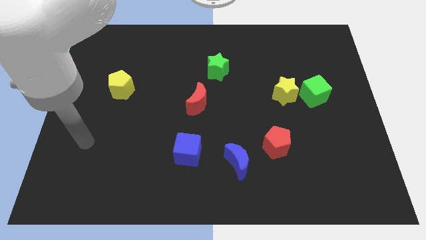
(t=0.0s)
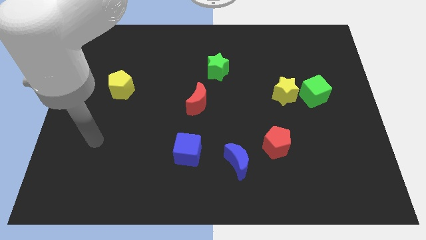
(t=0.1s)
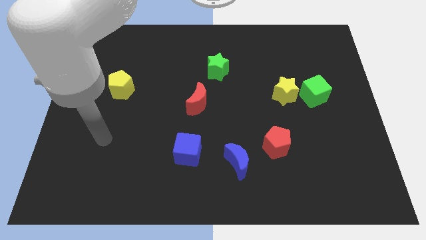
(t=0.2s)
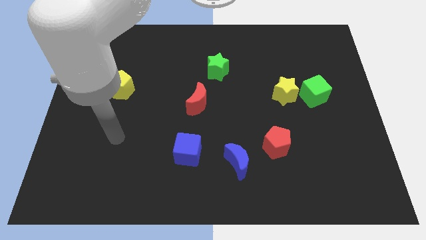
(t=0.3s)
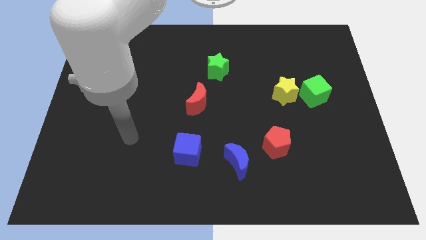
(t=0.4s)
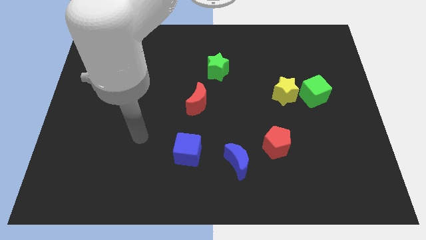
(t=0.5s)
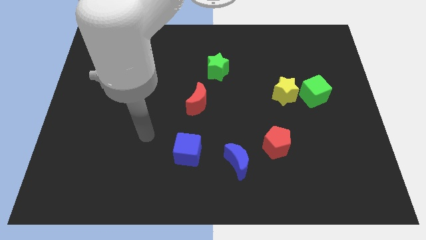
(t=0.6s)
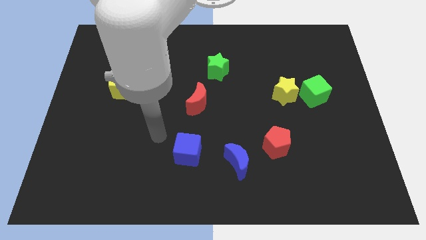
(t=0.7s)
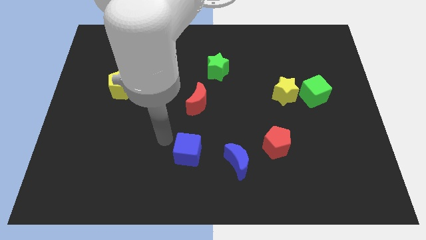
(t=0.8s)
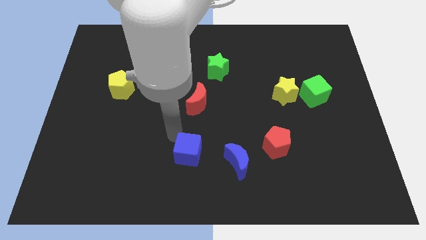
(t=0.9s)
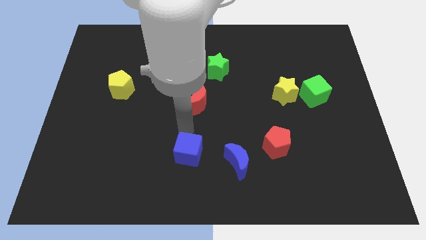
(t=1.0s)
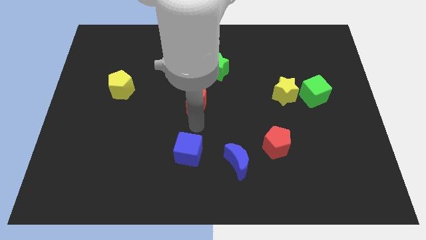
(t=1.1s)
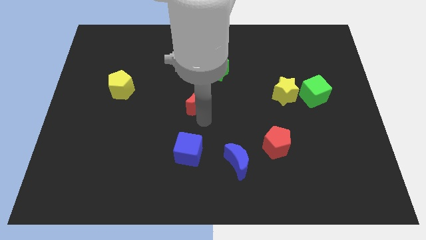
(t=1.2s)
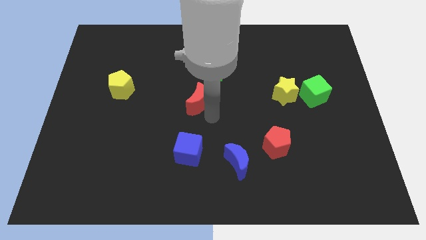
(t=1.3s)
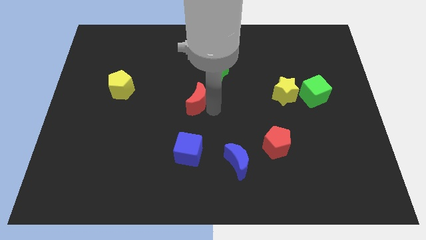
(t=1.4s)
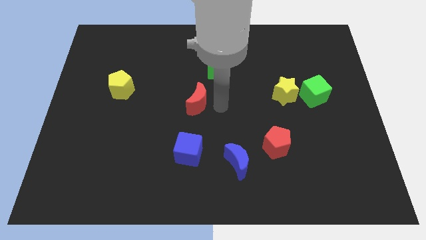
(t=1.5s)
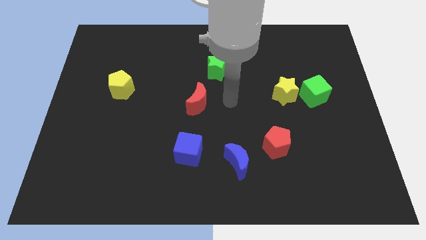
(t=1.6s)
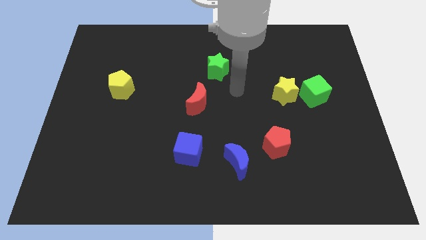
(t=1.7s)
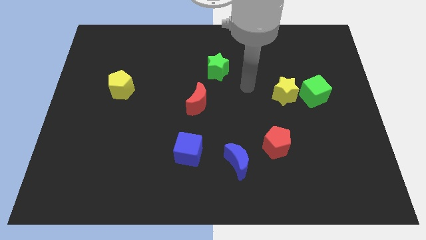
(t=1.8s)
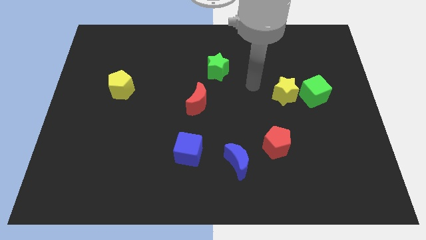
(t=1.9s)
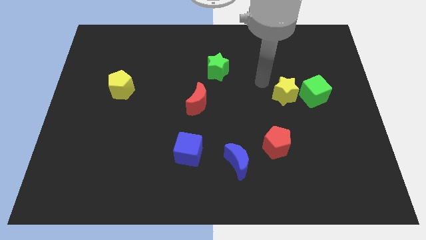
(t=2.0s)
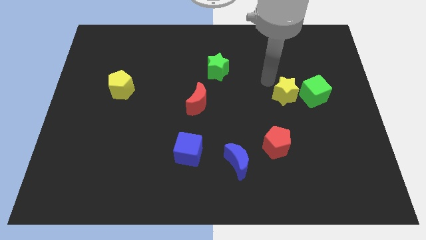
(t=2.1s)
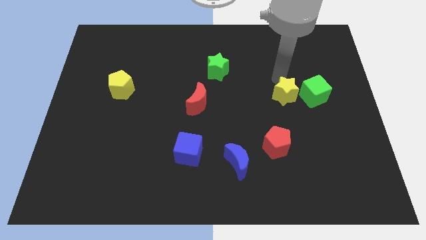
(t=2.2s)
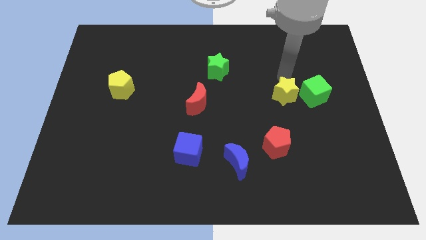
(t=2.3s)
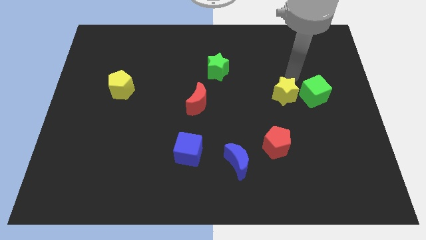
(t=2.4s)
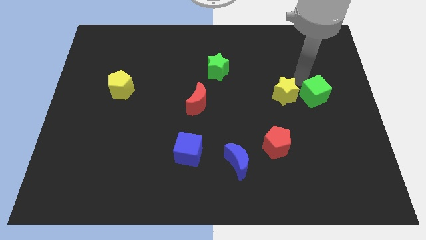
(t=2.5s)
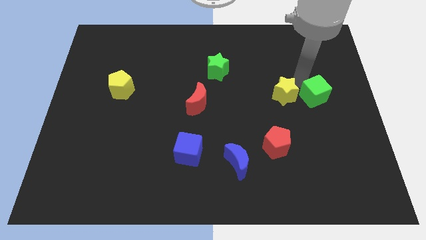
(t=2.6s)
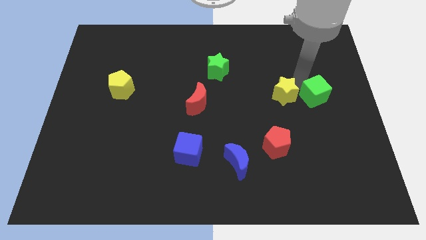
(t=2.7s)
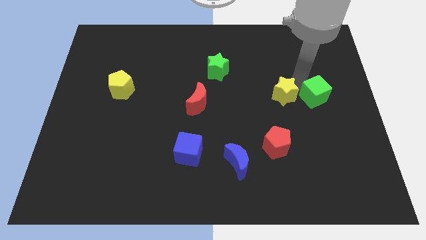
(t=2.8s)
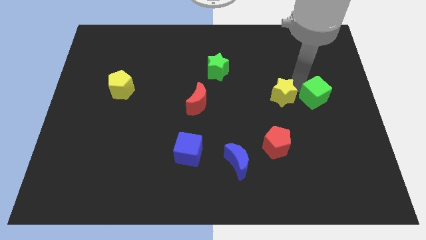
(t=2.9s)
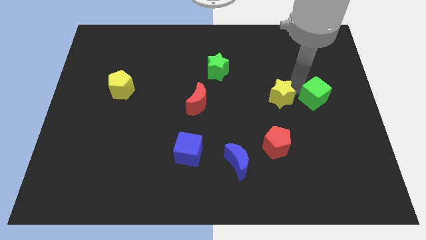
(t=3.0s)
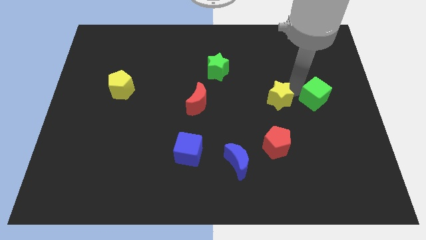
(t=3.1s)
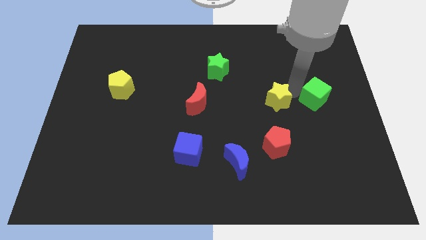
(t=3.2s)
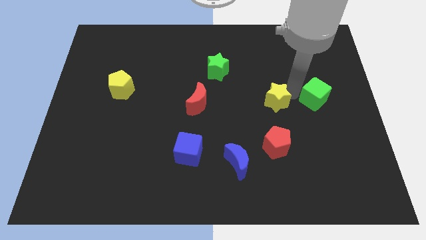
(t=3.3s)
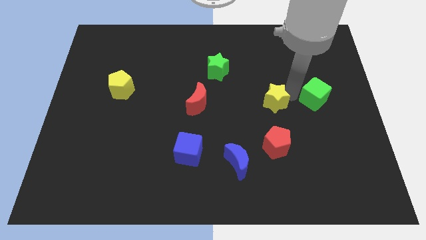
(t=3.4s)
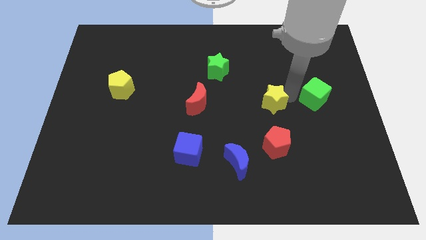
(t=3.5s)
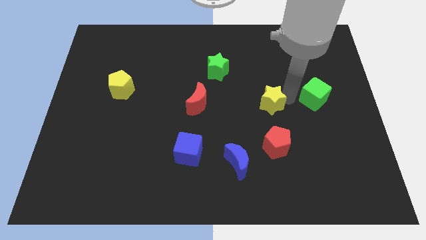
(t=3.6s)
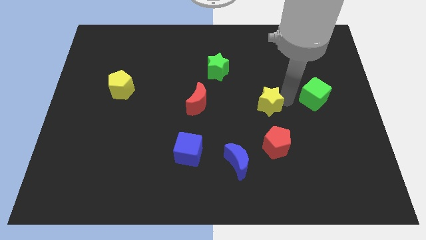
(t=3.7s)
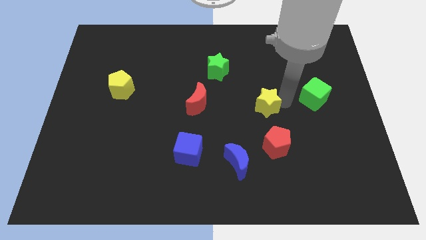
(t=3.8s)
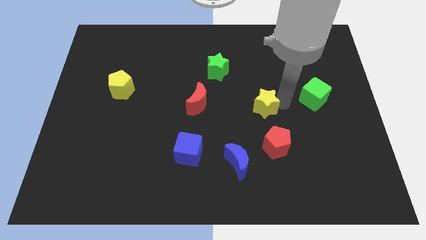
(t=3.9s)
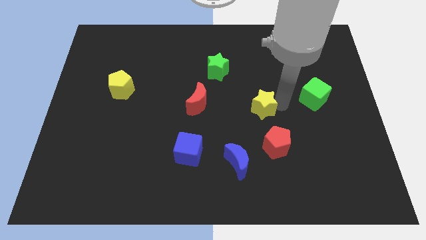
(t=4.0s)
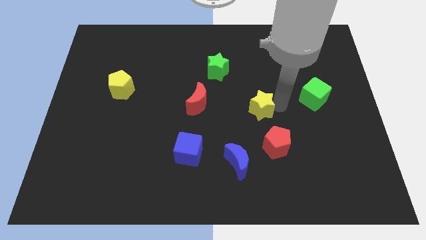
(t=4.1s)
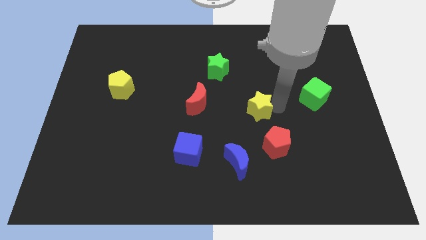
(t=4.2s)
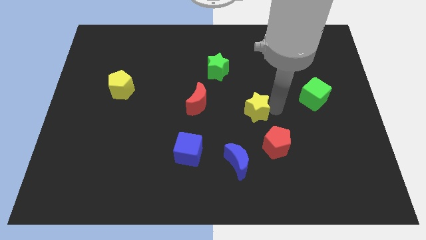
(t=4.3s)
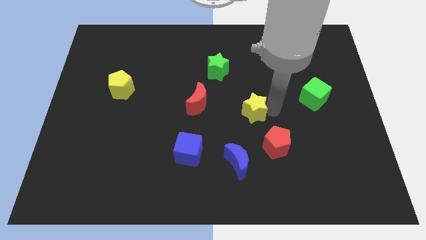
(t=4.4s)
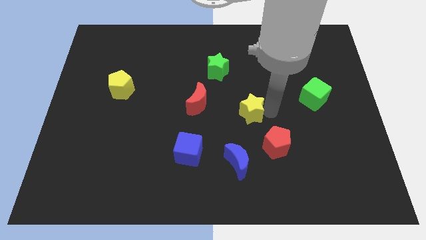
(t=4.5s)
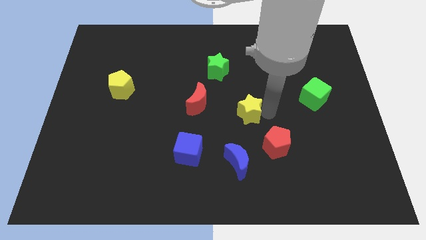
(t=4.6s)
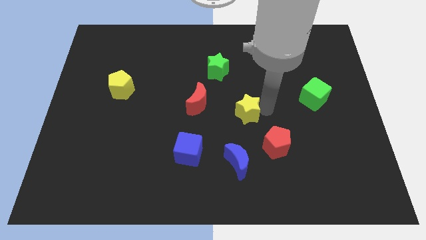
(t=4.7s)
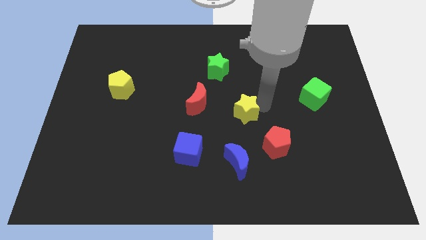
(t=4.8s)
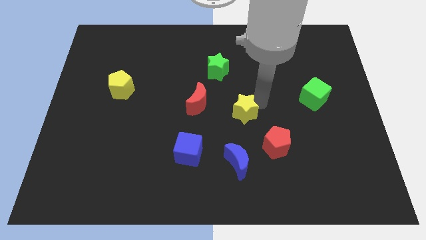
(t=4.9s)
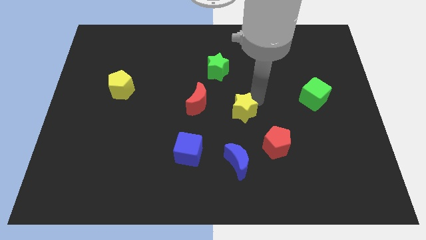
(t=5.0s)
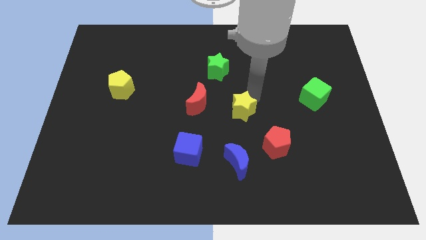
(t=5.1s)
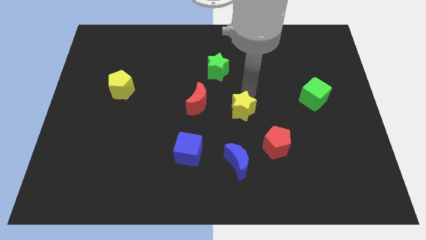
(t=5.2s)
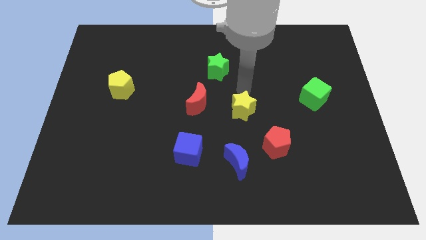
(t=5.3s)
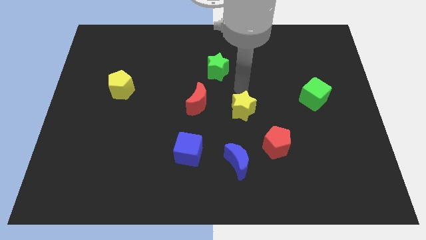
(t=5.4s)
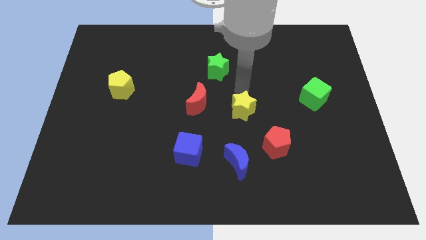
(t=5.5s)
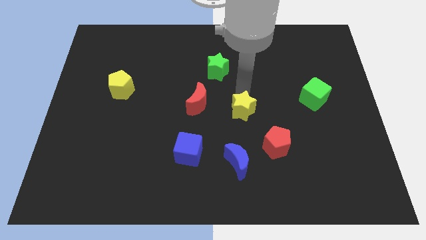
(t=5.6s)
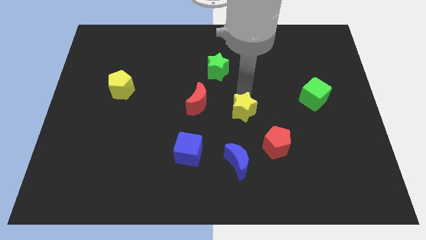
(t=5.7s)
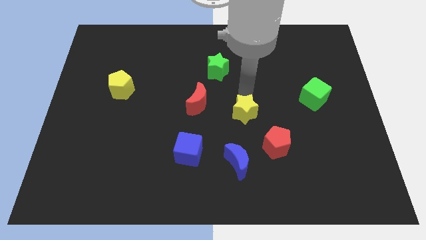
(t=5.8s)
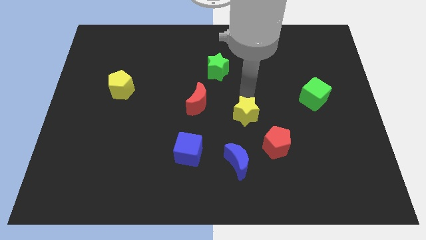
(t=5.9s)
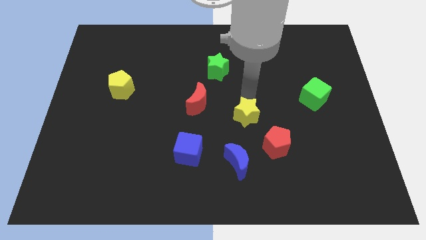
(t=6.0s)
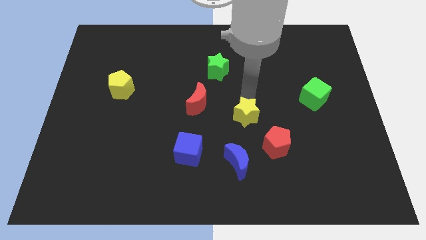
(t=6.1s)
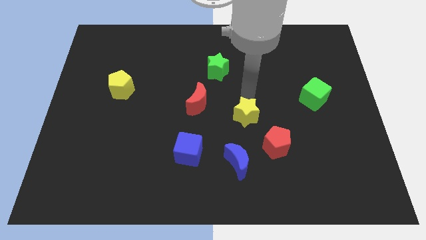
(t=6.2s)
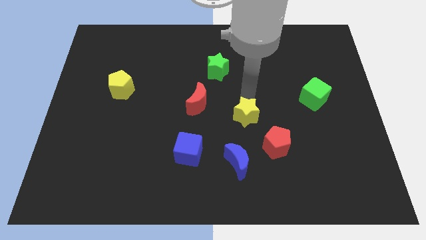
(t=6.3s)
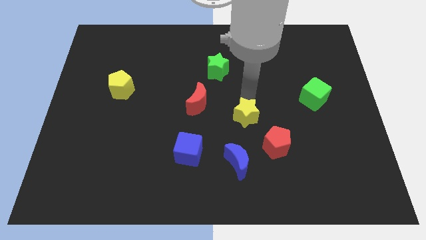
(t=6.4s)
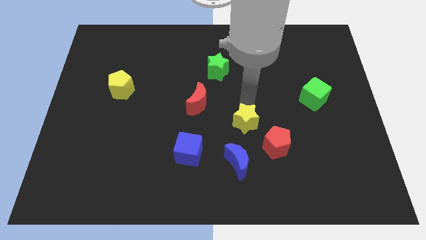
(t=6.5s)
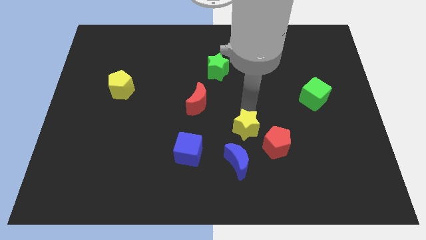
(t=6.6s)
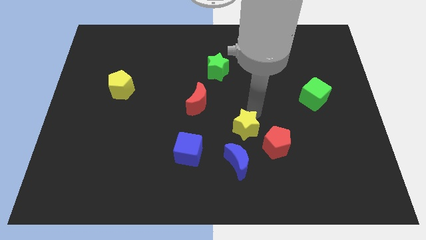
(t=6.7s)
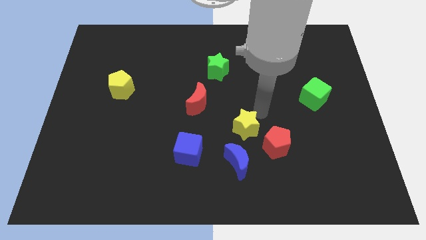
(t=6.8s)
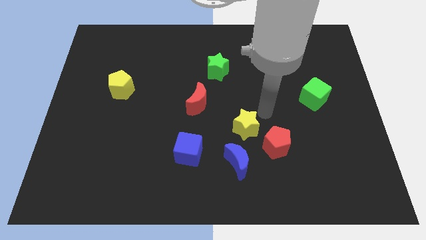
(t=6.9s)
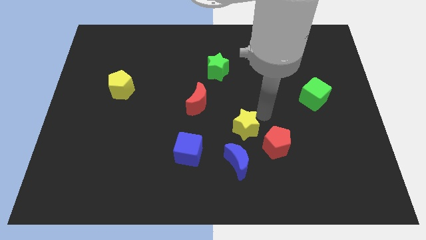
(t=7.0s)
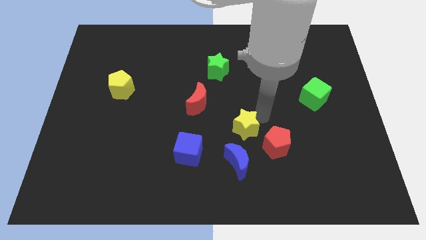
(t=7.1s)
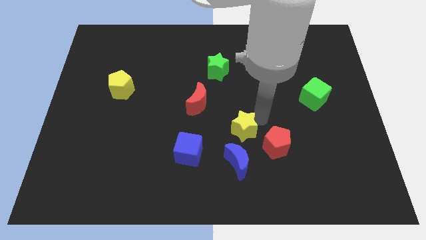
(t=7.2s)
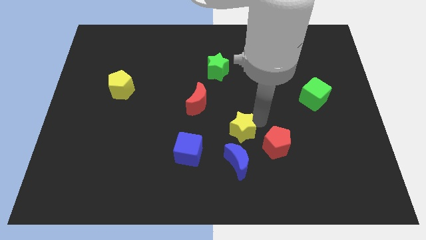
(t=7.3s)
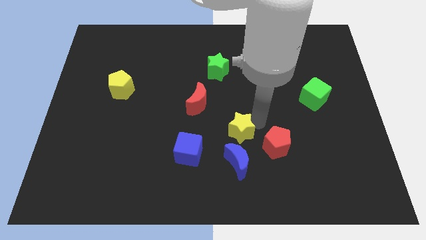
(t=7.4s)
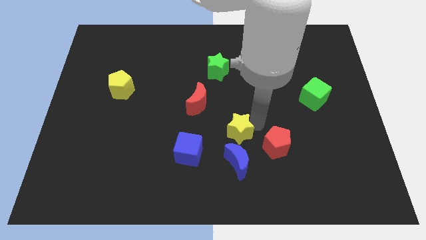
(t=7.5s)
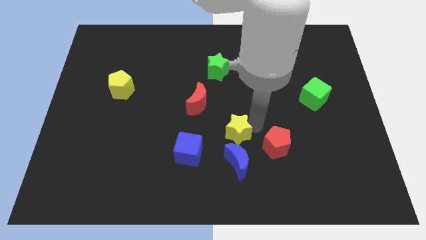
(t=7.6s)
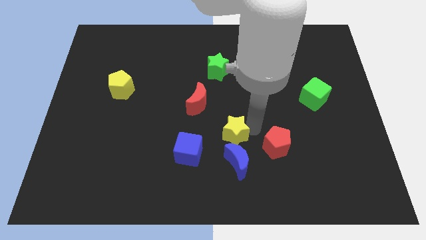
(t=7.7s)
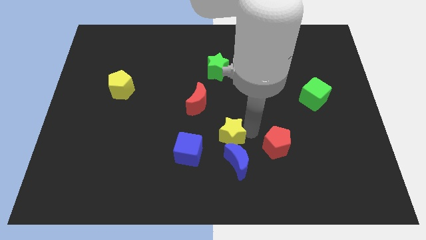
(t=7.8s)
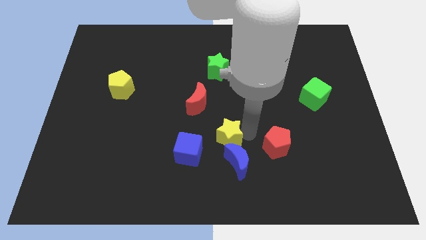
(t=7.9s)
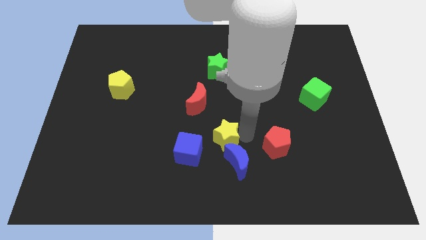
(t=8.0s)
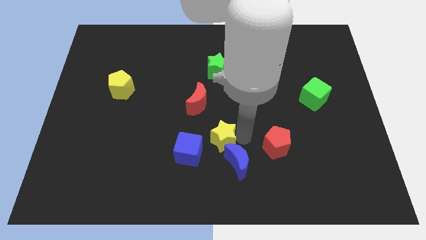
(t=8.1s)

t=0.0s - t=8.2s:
slide the yellow star down and then left
